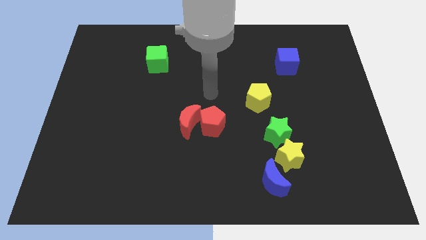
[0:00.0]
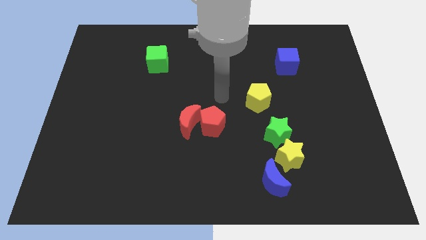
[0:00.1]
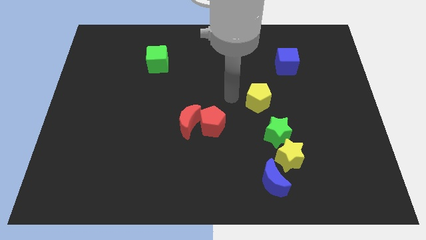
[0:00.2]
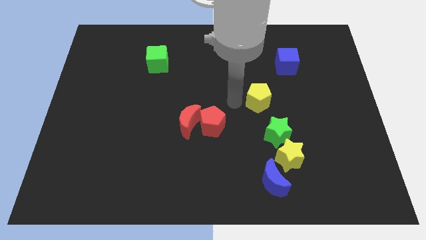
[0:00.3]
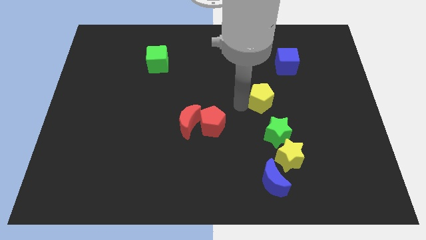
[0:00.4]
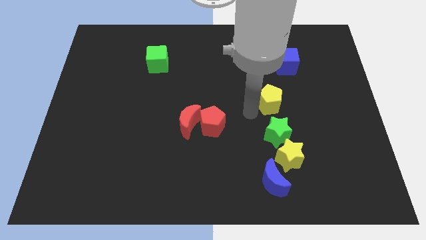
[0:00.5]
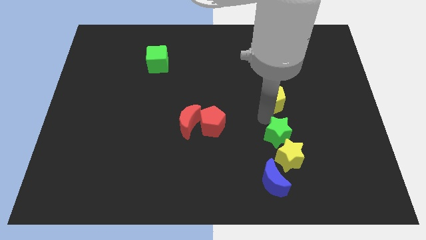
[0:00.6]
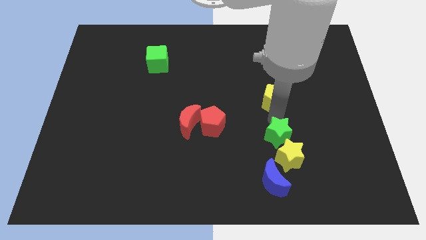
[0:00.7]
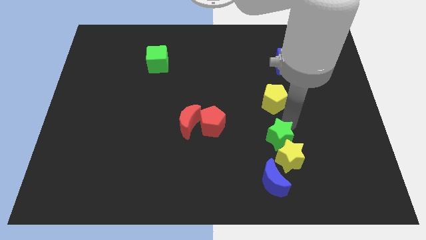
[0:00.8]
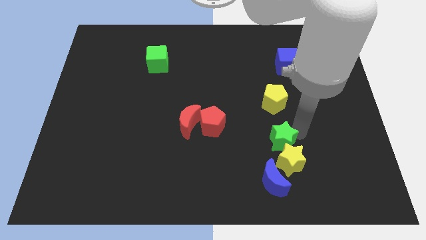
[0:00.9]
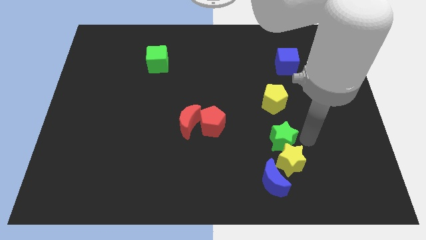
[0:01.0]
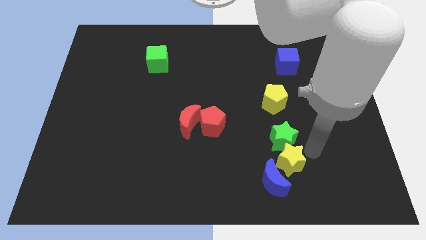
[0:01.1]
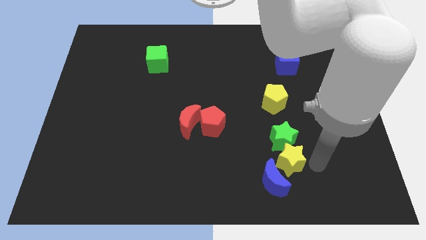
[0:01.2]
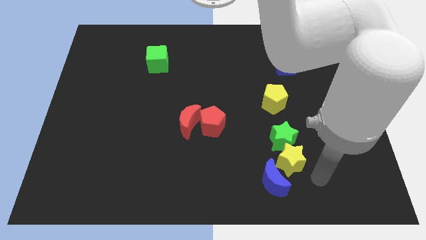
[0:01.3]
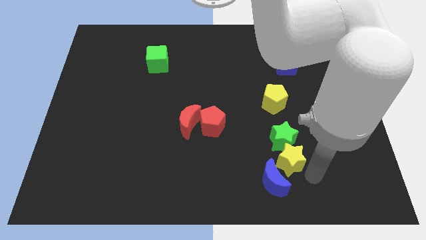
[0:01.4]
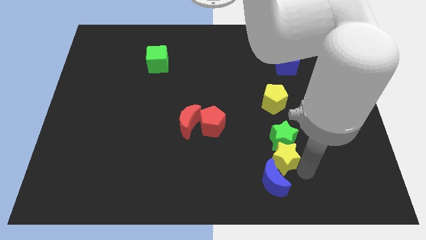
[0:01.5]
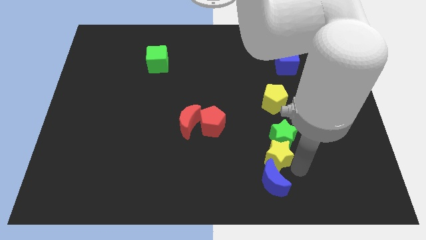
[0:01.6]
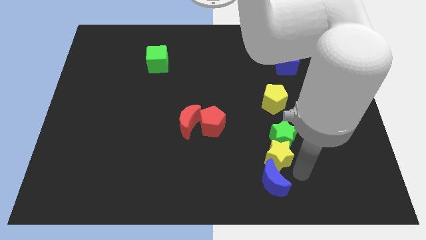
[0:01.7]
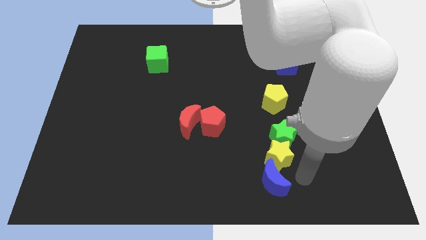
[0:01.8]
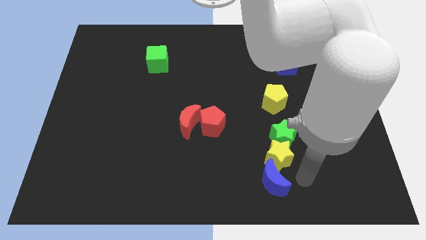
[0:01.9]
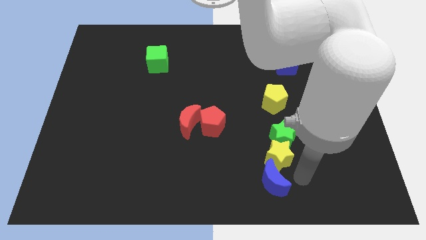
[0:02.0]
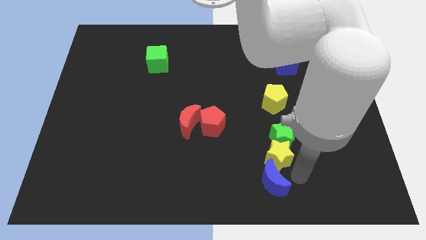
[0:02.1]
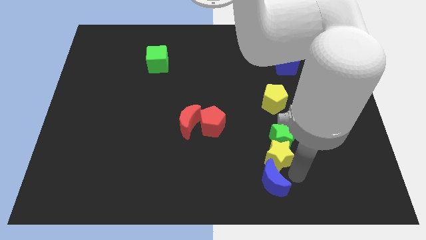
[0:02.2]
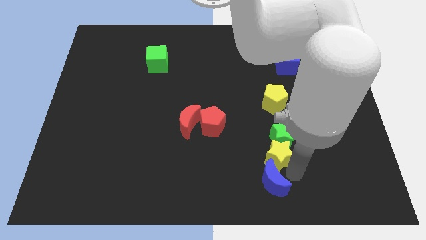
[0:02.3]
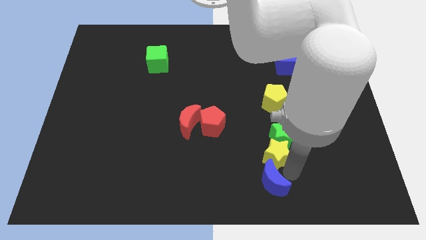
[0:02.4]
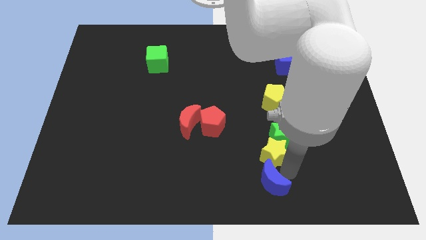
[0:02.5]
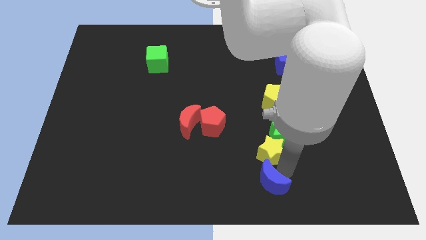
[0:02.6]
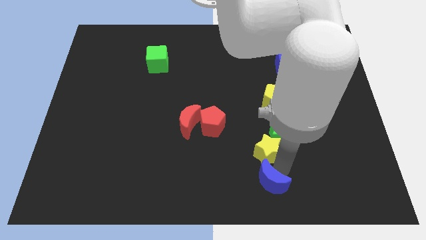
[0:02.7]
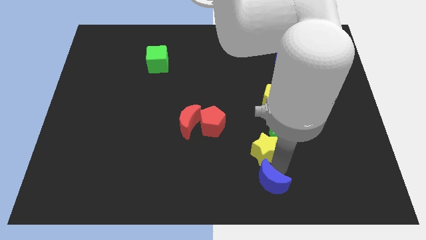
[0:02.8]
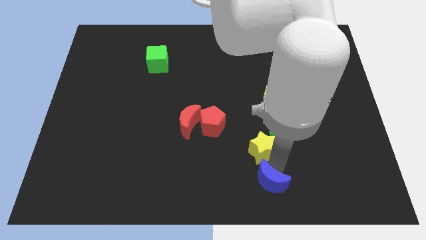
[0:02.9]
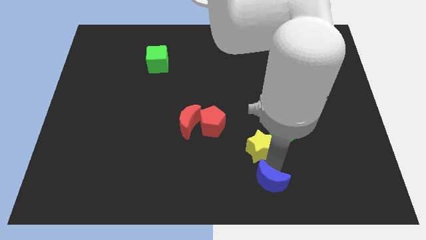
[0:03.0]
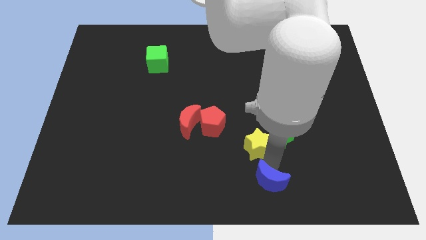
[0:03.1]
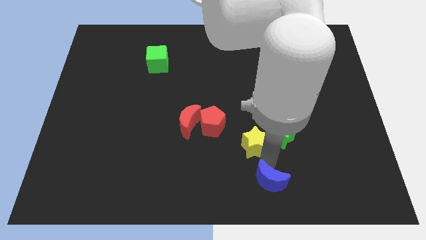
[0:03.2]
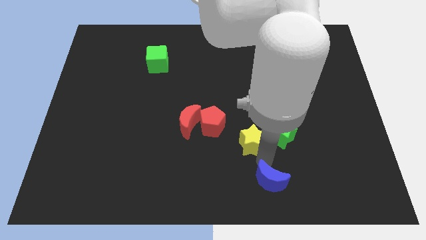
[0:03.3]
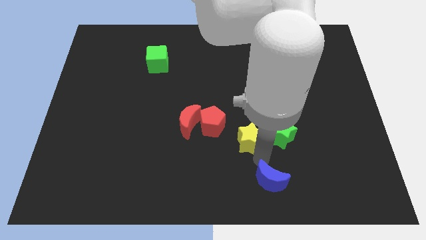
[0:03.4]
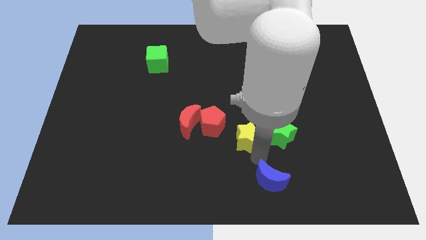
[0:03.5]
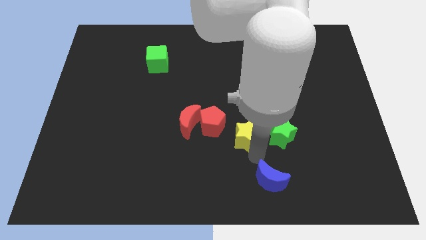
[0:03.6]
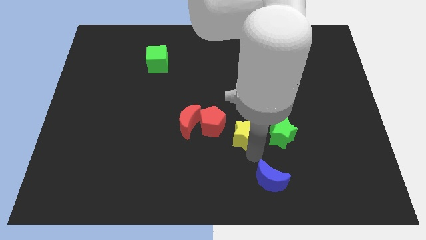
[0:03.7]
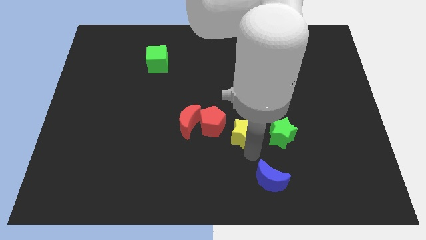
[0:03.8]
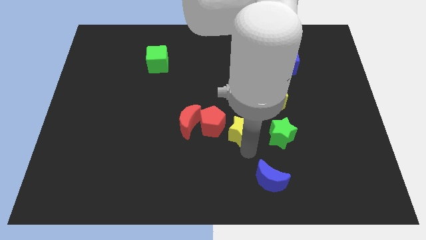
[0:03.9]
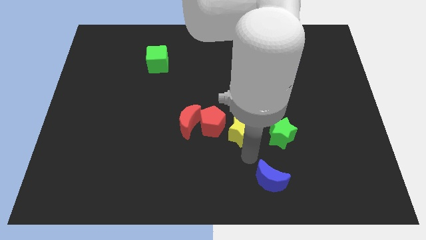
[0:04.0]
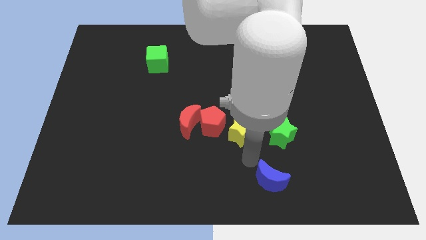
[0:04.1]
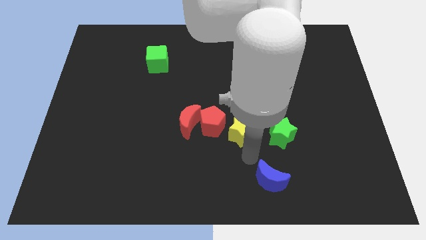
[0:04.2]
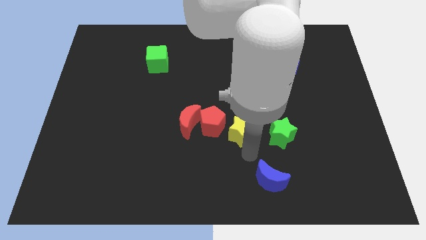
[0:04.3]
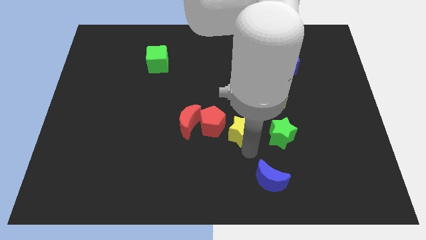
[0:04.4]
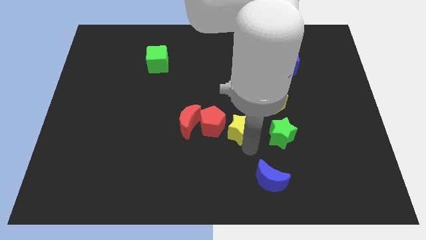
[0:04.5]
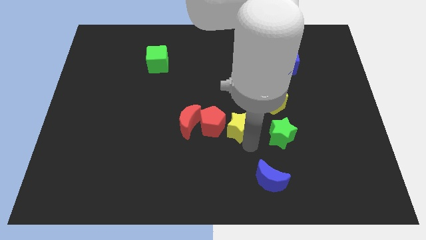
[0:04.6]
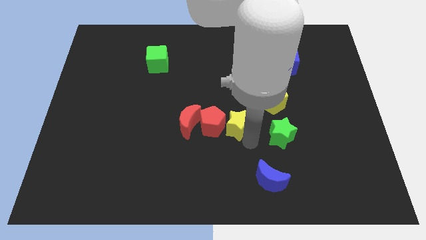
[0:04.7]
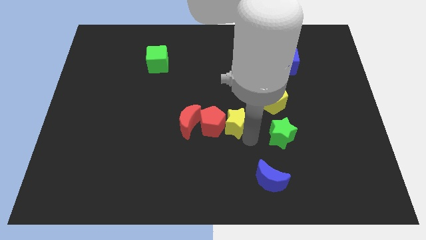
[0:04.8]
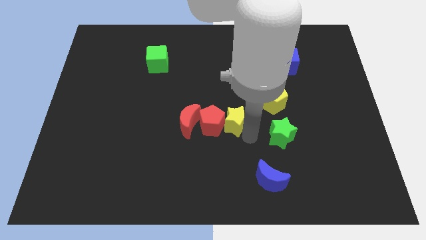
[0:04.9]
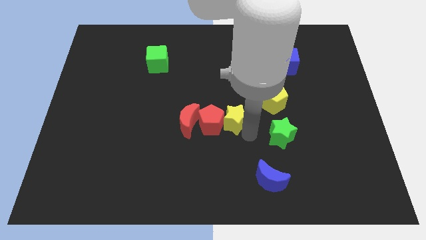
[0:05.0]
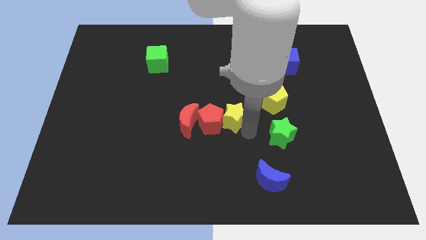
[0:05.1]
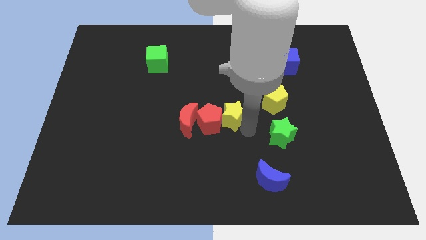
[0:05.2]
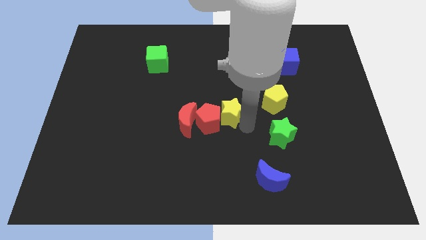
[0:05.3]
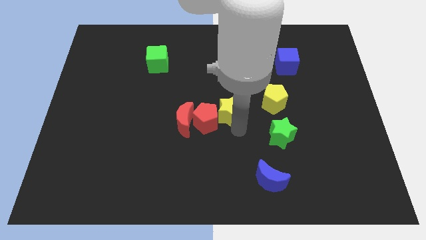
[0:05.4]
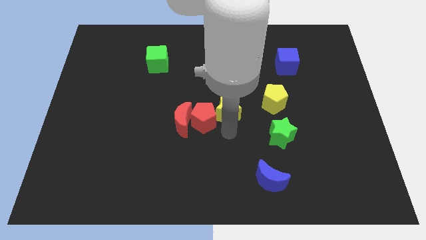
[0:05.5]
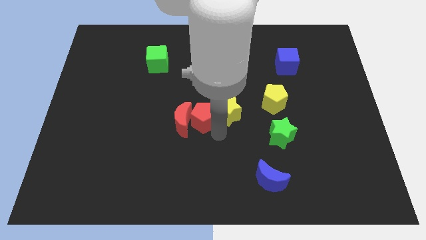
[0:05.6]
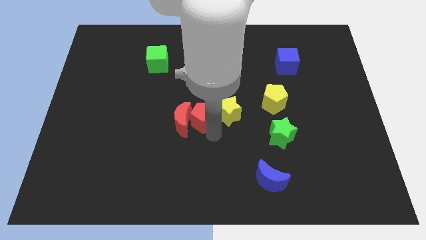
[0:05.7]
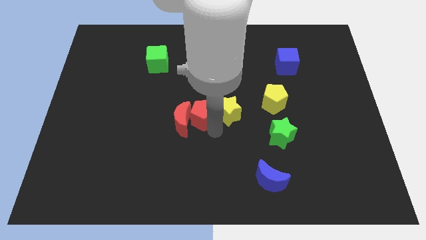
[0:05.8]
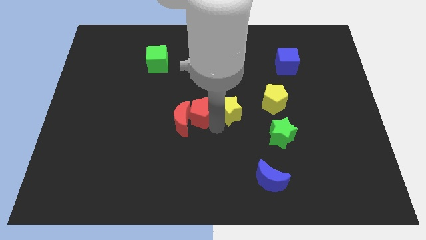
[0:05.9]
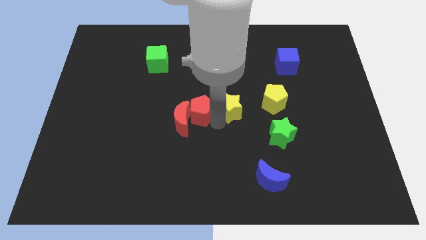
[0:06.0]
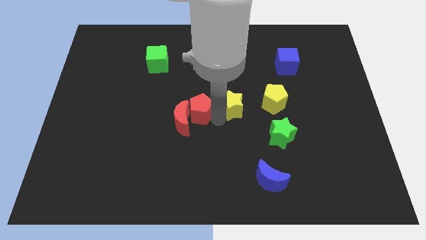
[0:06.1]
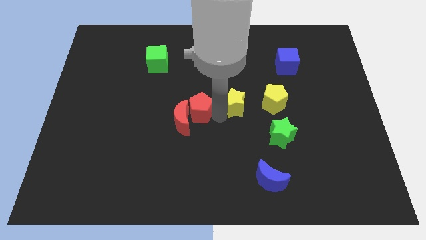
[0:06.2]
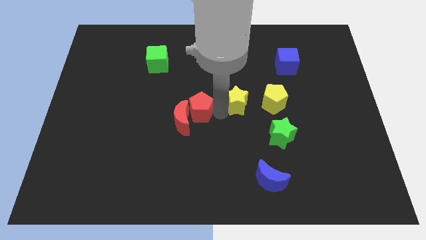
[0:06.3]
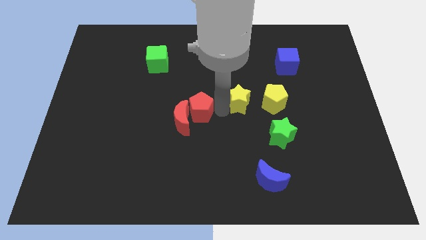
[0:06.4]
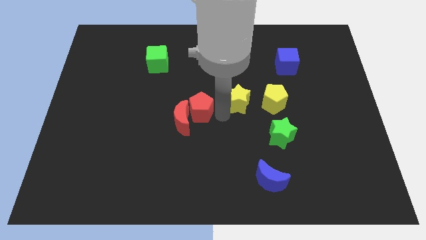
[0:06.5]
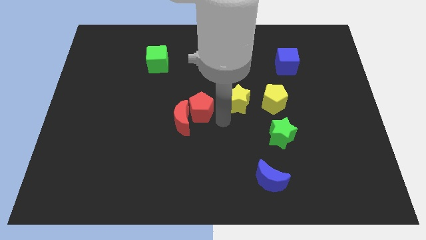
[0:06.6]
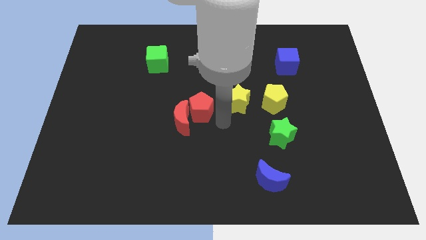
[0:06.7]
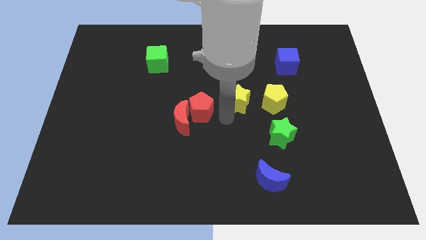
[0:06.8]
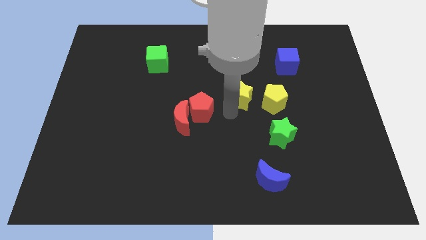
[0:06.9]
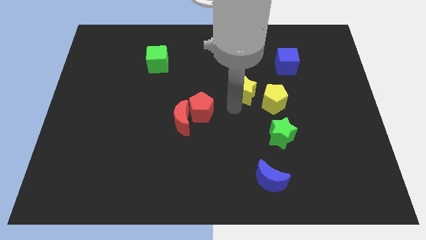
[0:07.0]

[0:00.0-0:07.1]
move the yellow star to the top left side of the yellow pentagon
